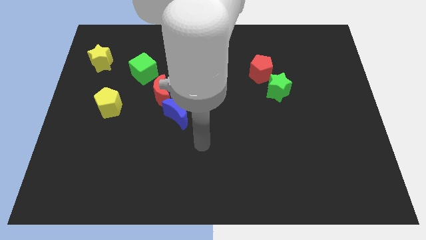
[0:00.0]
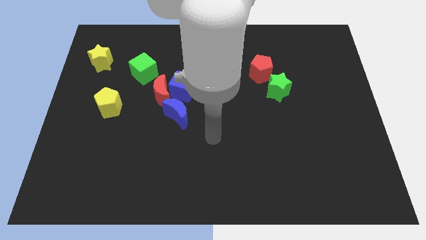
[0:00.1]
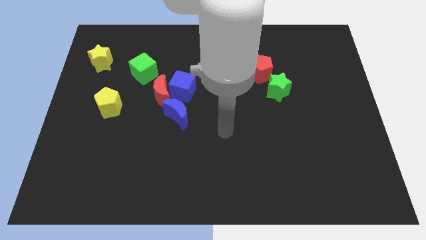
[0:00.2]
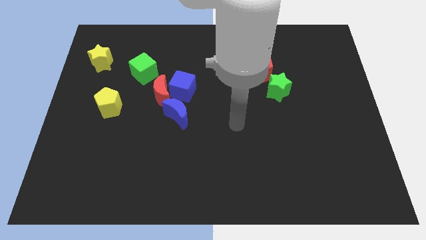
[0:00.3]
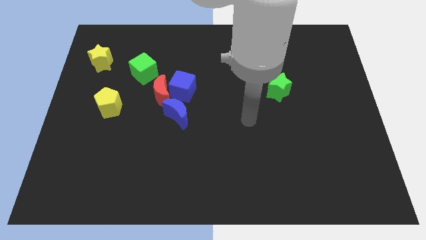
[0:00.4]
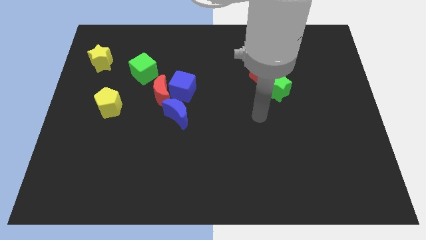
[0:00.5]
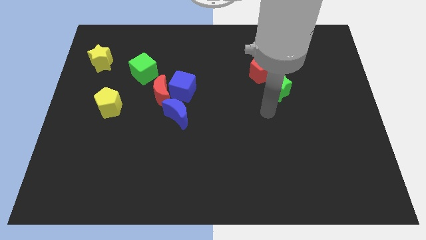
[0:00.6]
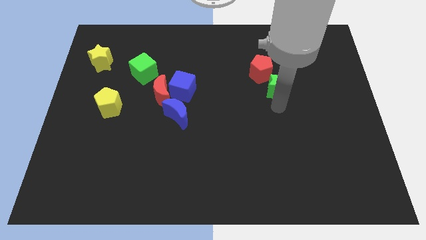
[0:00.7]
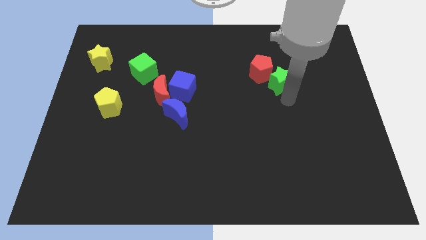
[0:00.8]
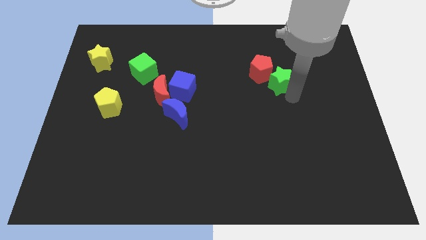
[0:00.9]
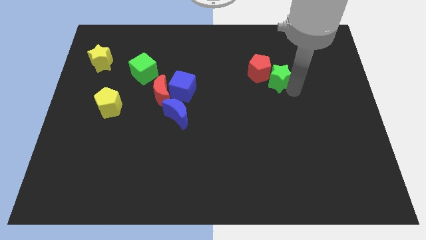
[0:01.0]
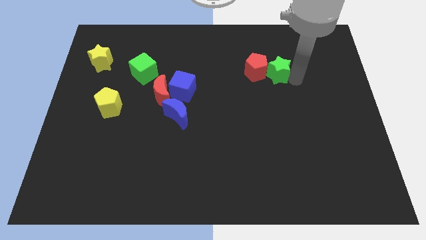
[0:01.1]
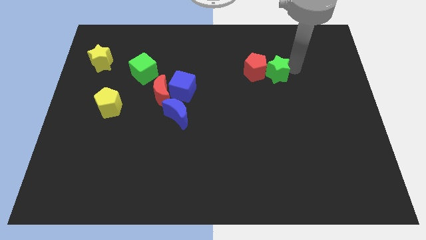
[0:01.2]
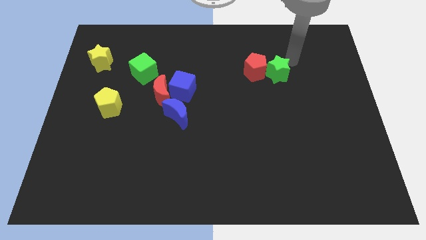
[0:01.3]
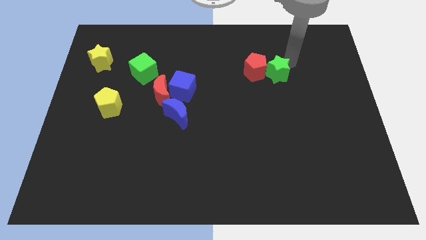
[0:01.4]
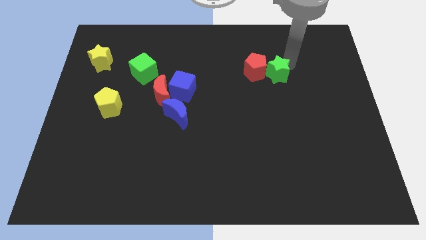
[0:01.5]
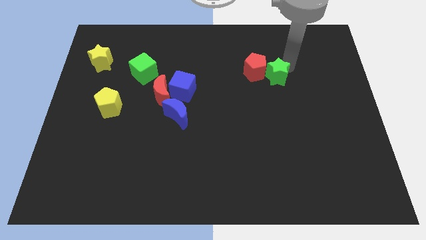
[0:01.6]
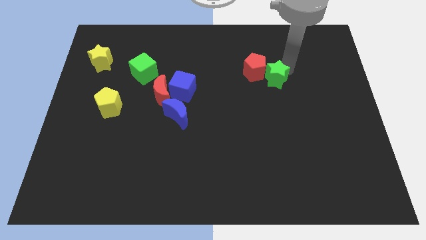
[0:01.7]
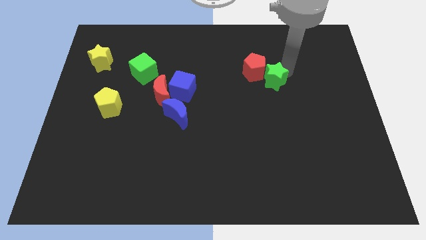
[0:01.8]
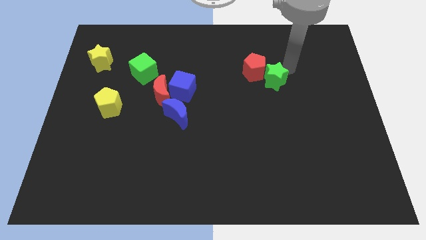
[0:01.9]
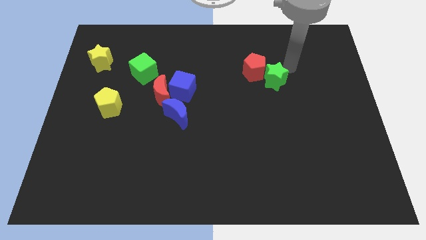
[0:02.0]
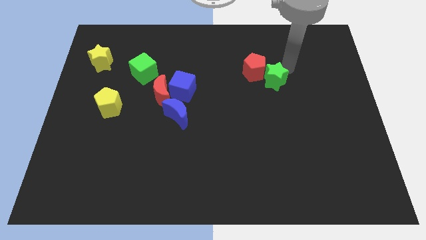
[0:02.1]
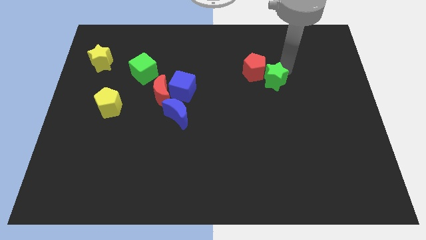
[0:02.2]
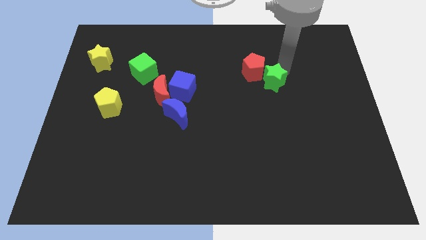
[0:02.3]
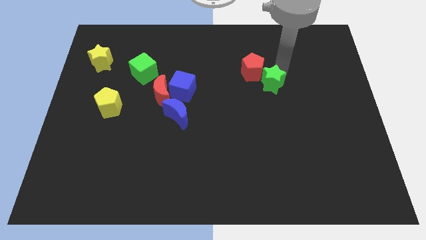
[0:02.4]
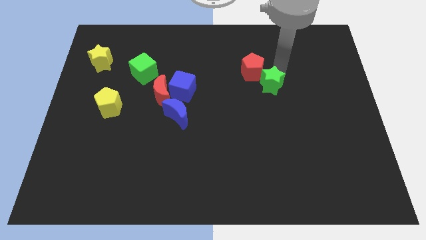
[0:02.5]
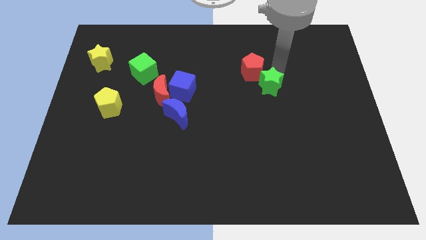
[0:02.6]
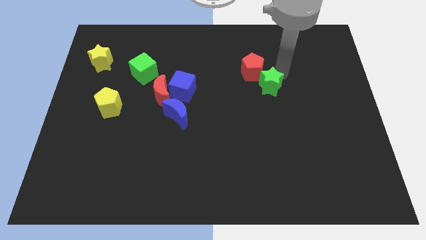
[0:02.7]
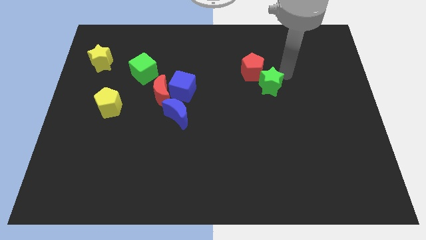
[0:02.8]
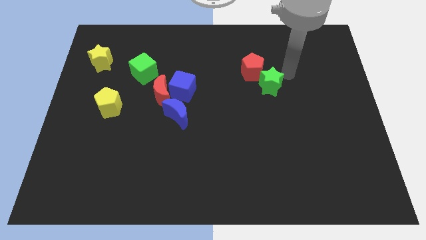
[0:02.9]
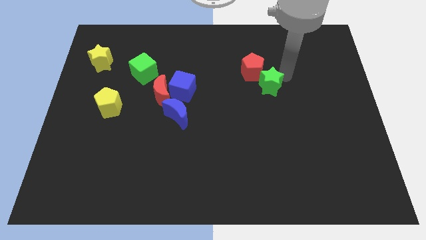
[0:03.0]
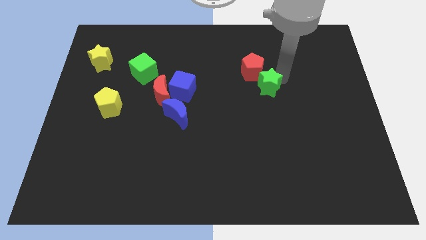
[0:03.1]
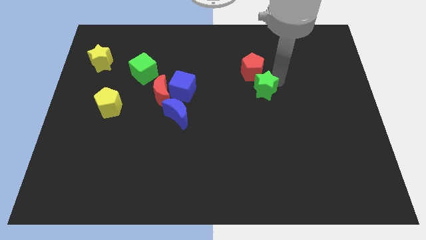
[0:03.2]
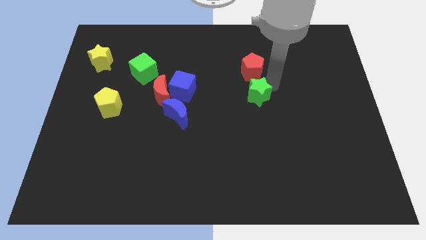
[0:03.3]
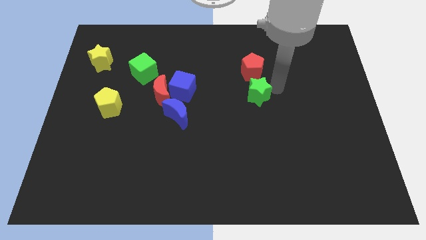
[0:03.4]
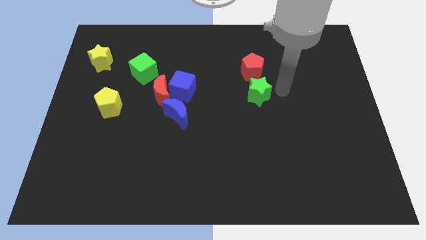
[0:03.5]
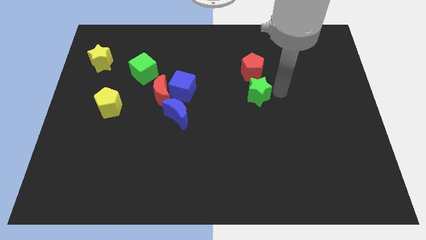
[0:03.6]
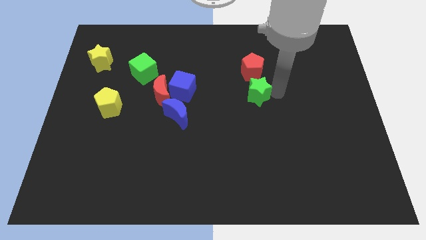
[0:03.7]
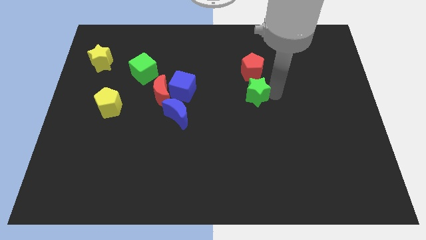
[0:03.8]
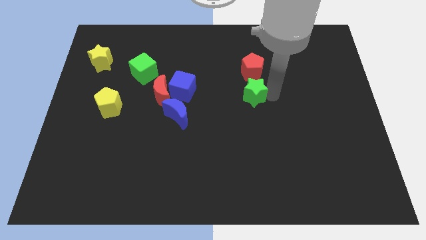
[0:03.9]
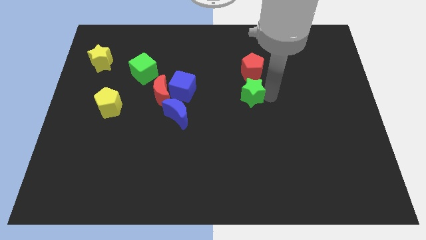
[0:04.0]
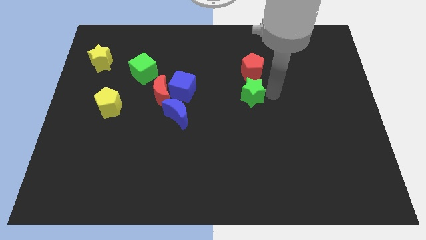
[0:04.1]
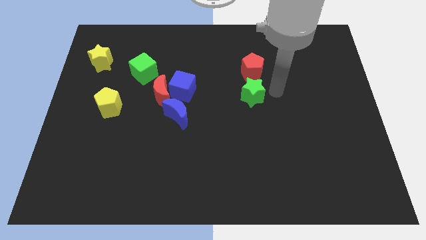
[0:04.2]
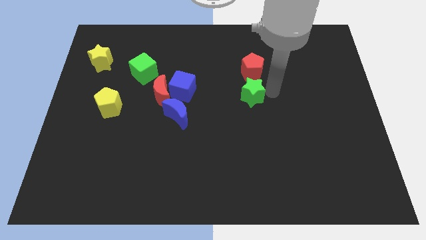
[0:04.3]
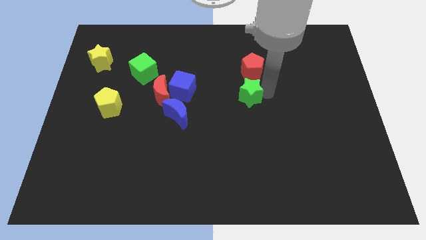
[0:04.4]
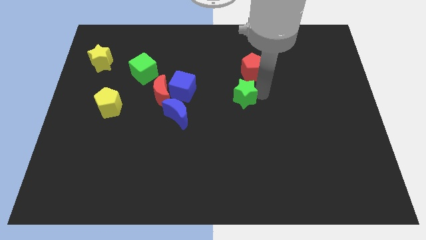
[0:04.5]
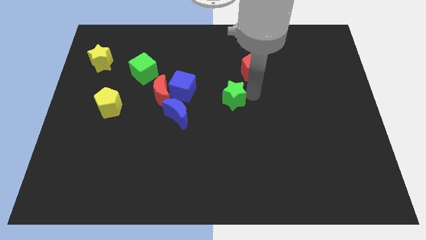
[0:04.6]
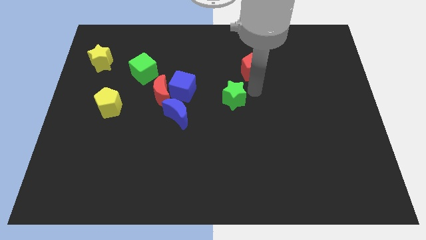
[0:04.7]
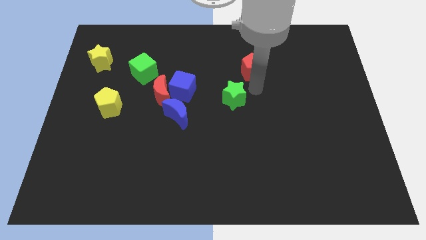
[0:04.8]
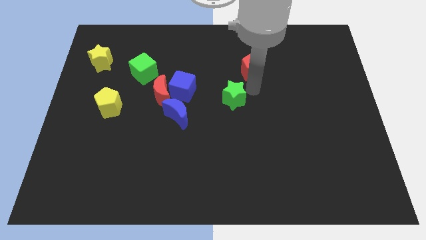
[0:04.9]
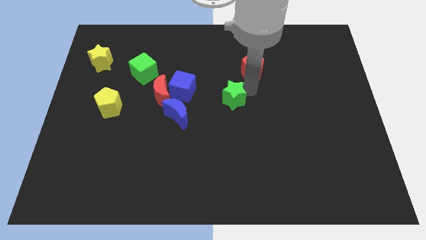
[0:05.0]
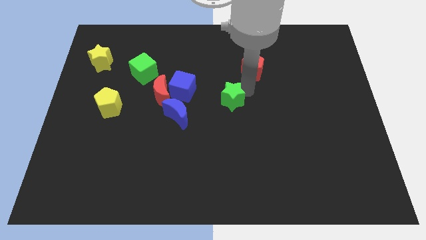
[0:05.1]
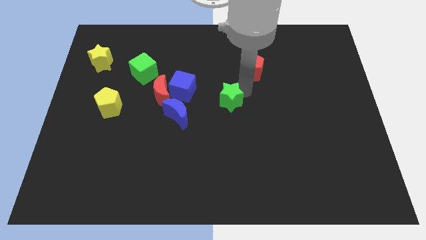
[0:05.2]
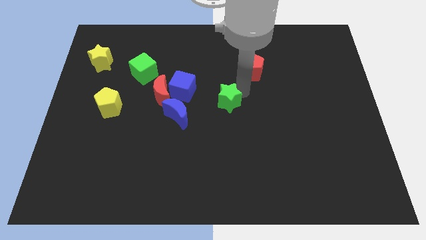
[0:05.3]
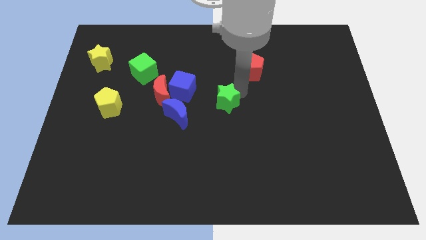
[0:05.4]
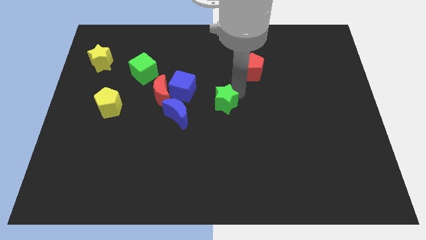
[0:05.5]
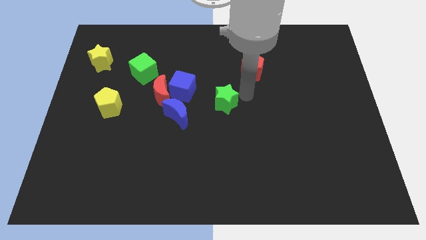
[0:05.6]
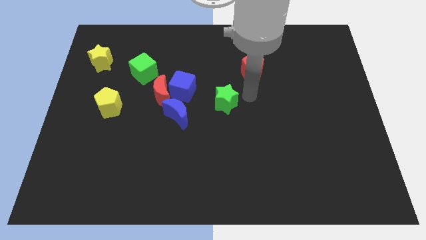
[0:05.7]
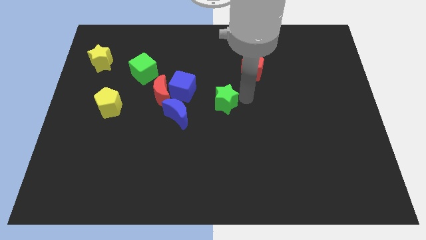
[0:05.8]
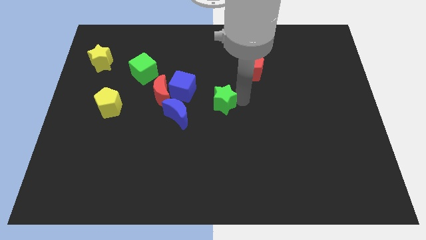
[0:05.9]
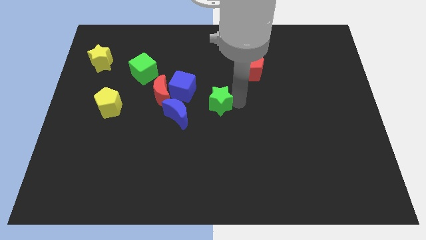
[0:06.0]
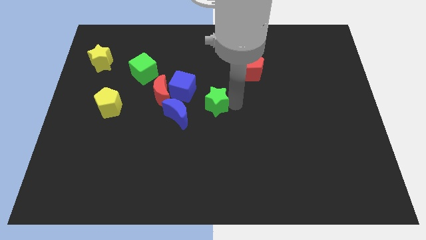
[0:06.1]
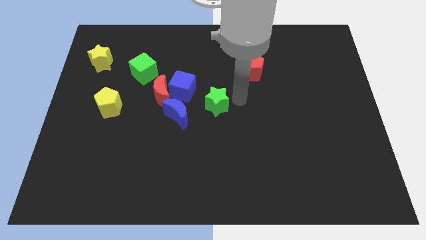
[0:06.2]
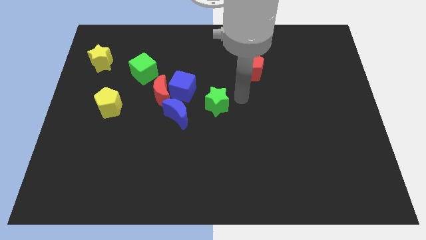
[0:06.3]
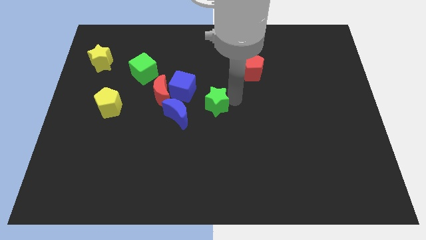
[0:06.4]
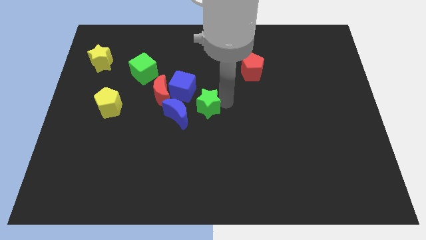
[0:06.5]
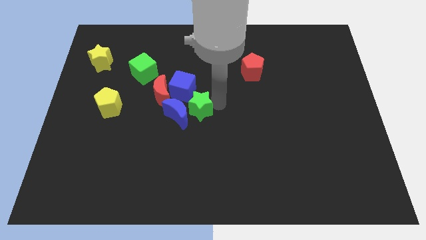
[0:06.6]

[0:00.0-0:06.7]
move the green star to the blue moon

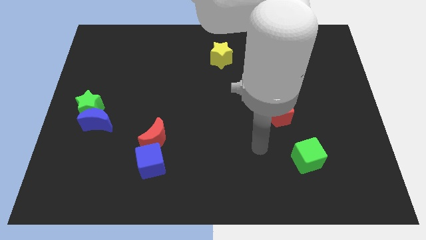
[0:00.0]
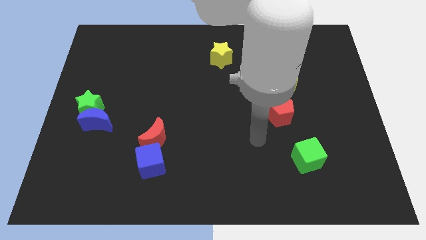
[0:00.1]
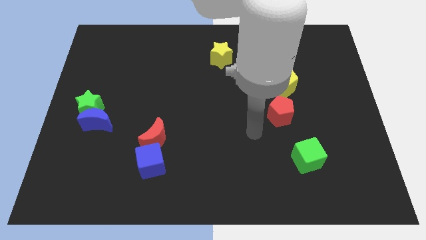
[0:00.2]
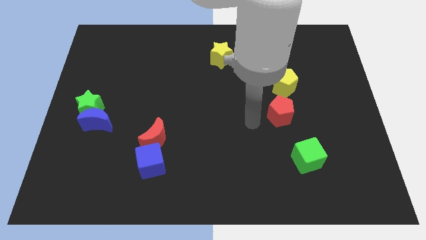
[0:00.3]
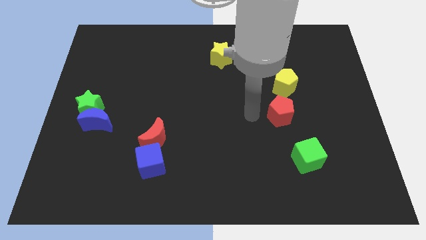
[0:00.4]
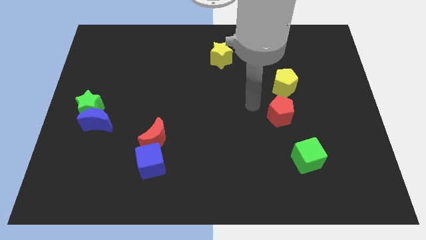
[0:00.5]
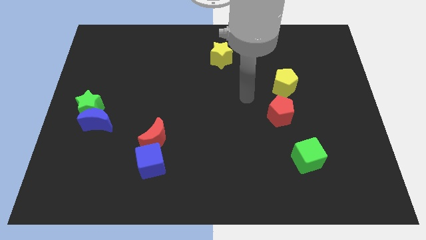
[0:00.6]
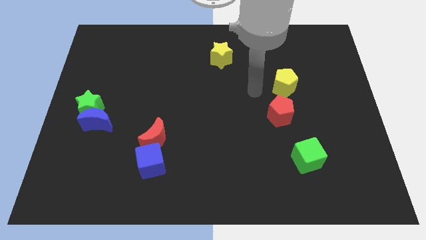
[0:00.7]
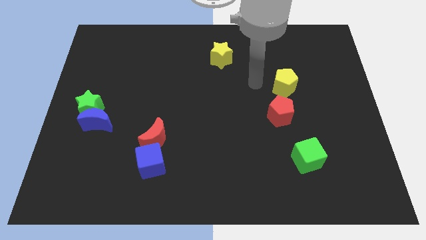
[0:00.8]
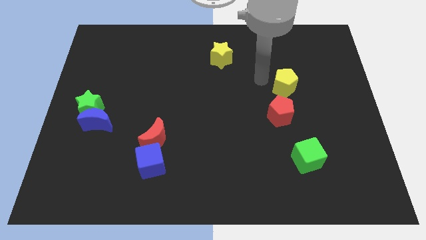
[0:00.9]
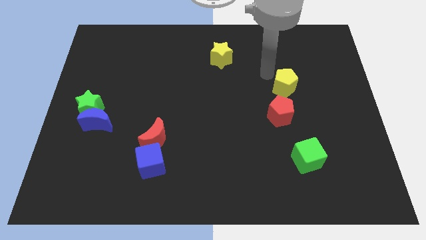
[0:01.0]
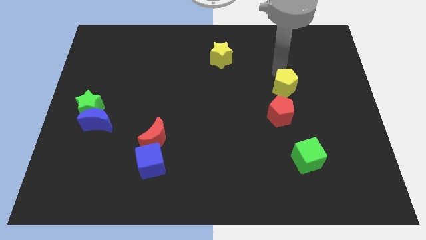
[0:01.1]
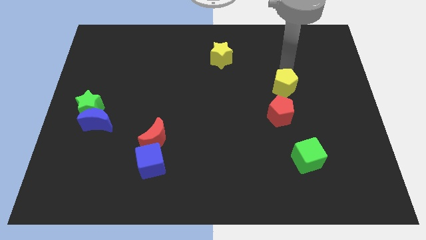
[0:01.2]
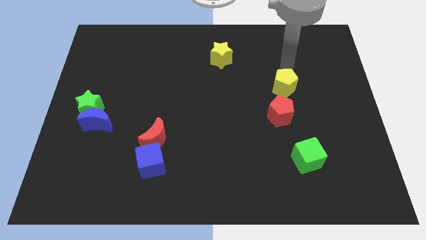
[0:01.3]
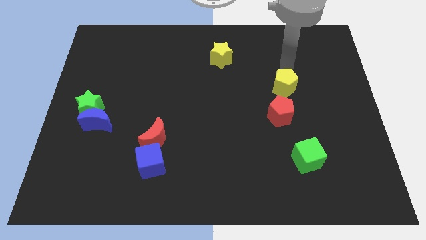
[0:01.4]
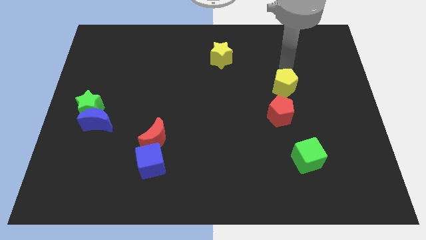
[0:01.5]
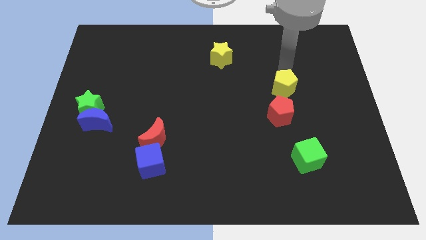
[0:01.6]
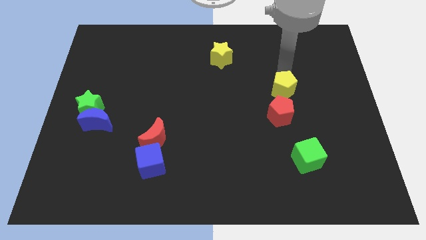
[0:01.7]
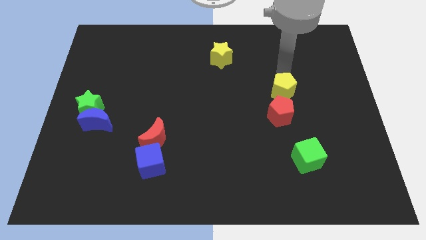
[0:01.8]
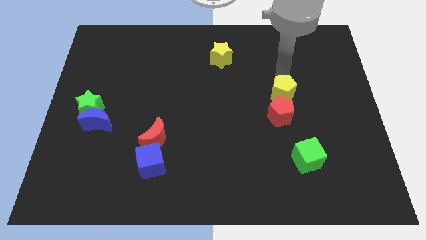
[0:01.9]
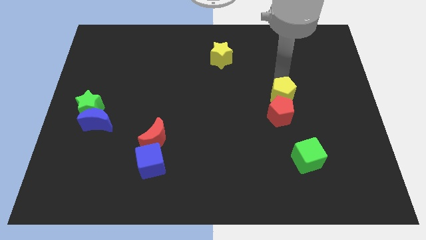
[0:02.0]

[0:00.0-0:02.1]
slide the yellow pentagon to the red pentagon
